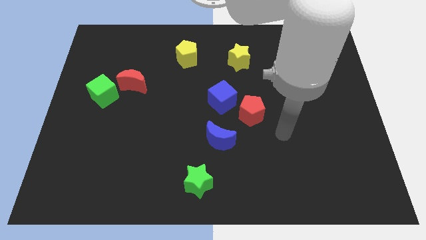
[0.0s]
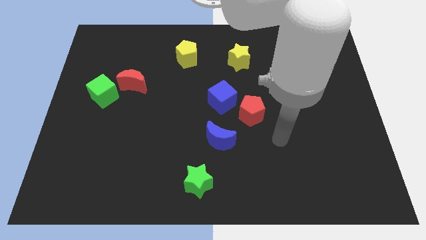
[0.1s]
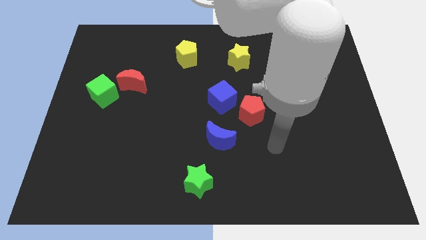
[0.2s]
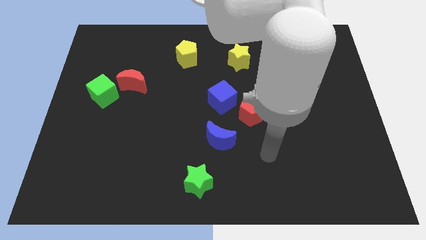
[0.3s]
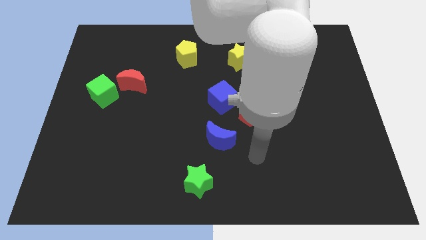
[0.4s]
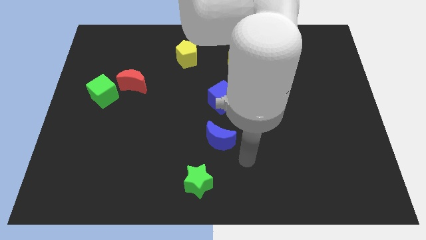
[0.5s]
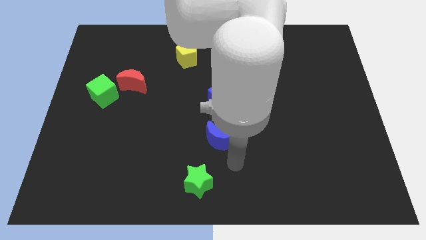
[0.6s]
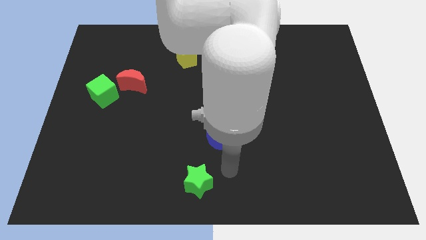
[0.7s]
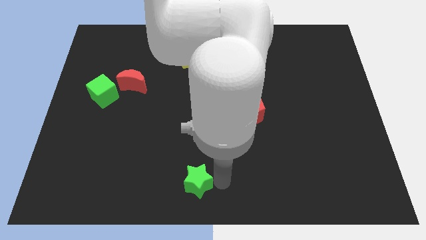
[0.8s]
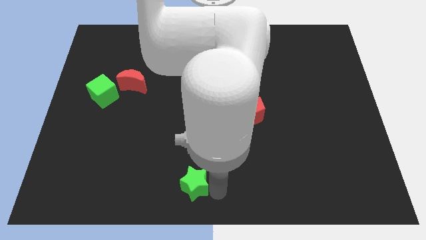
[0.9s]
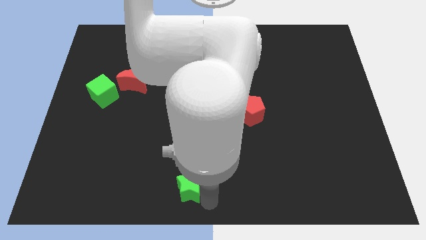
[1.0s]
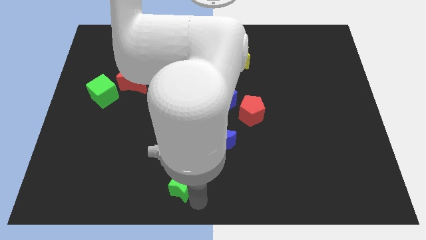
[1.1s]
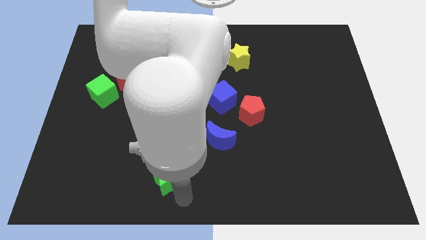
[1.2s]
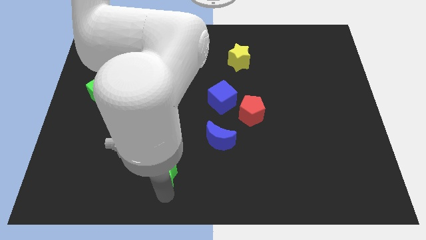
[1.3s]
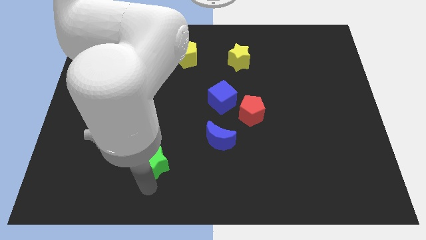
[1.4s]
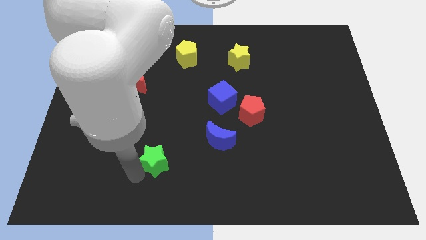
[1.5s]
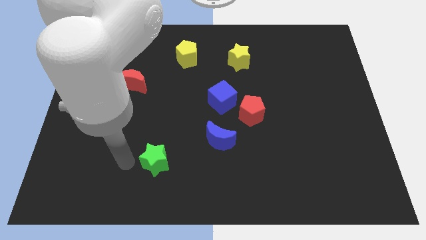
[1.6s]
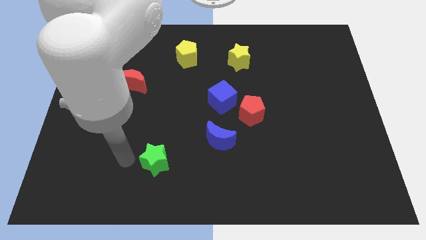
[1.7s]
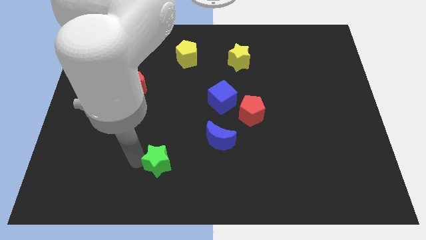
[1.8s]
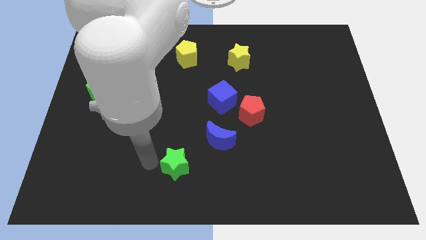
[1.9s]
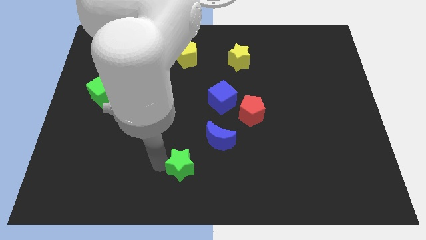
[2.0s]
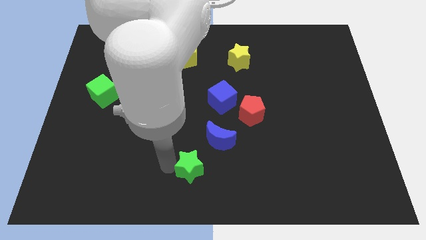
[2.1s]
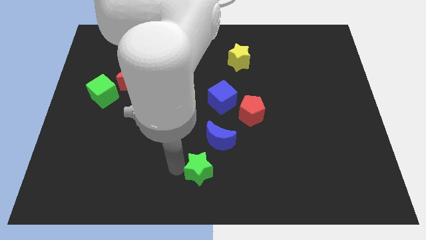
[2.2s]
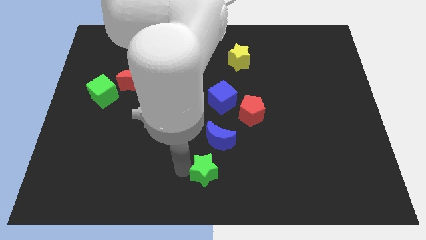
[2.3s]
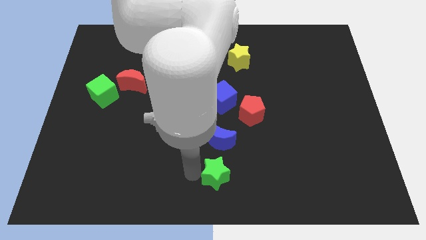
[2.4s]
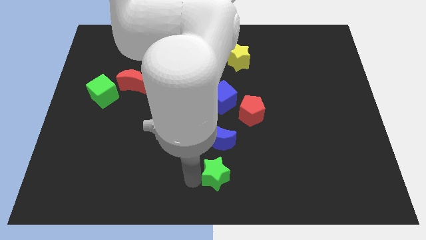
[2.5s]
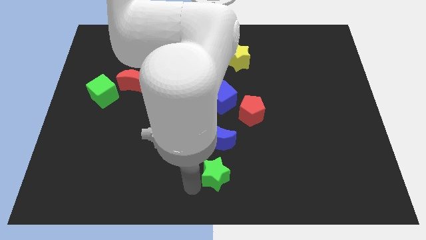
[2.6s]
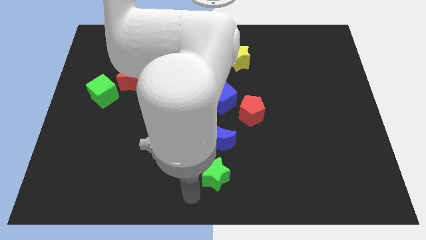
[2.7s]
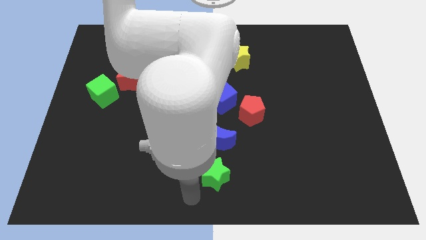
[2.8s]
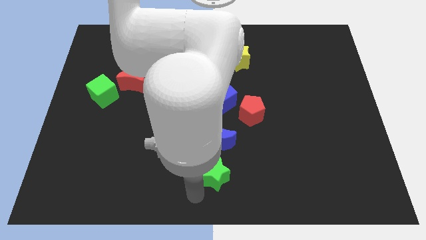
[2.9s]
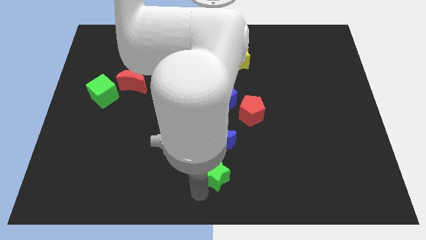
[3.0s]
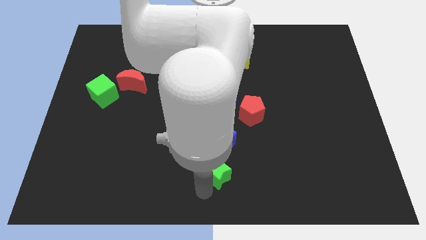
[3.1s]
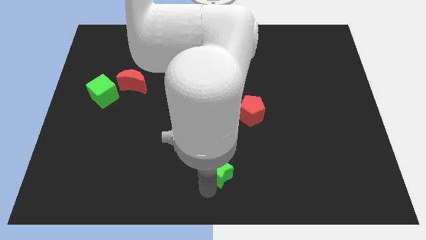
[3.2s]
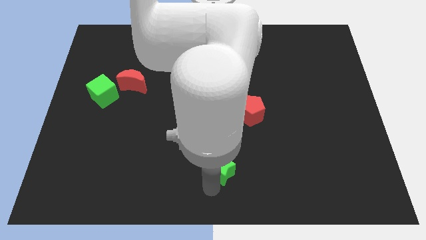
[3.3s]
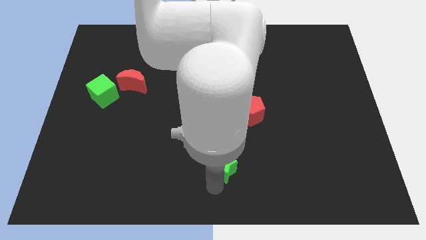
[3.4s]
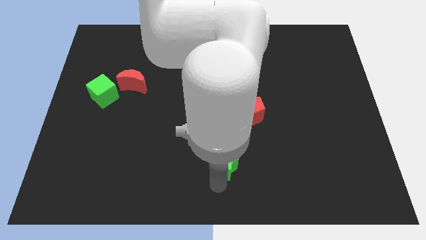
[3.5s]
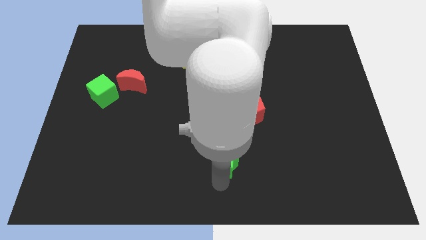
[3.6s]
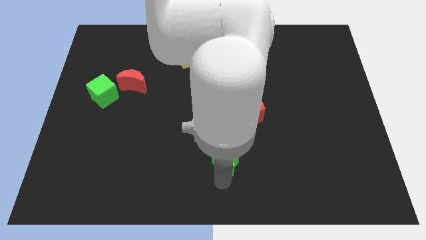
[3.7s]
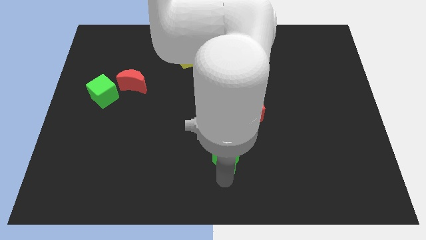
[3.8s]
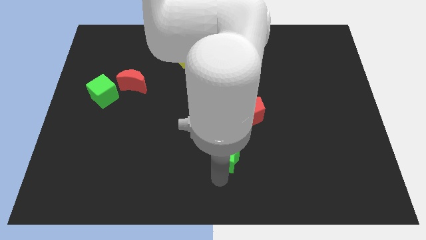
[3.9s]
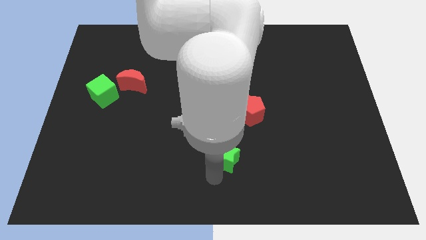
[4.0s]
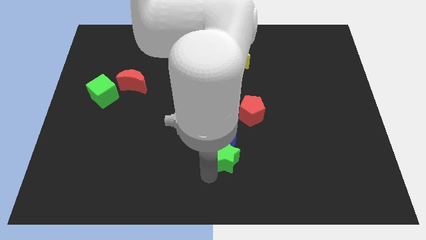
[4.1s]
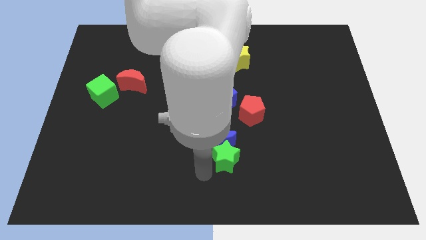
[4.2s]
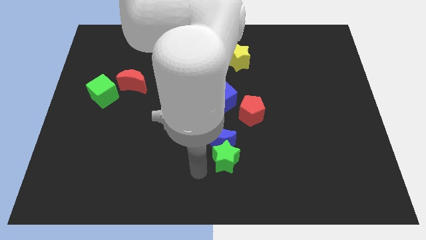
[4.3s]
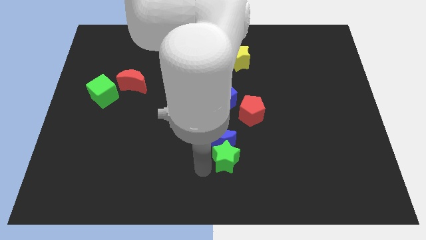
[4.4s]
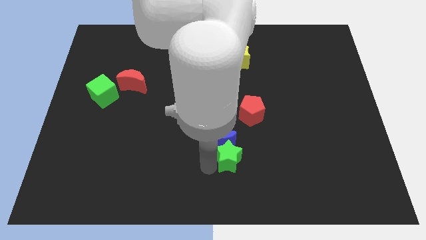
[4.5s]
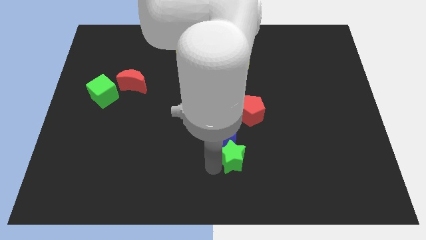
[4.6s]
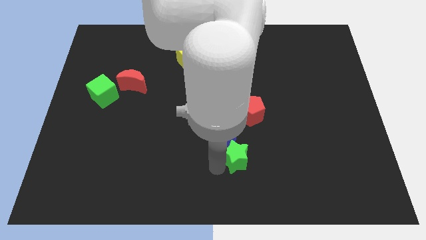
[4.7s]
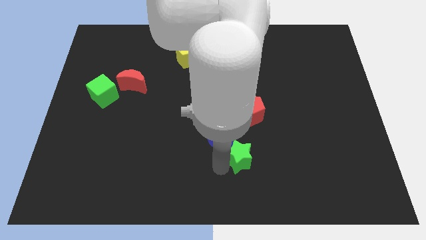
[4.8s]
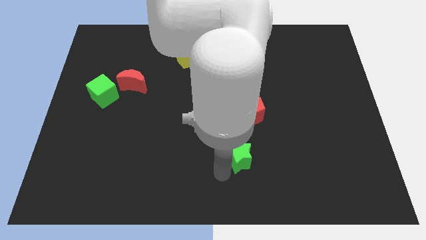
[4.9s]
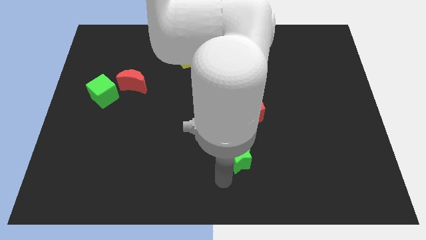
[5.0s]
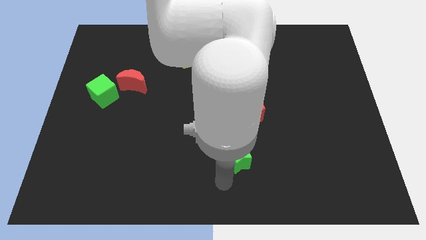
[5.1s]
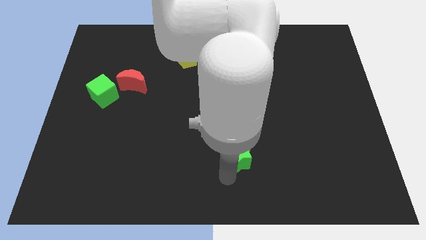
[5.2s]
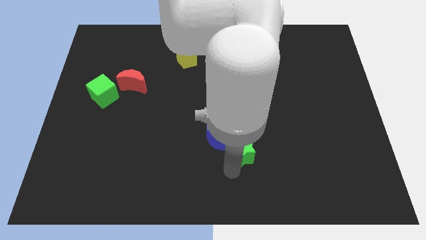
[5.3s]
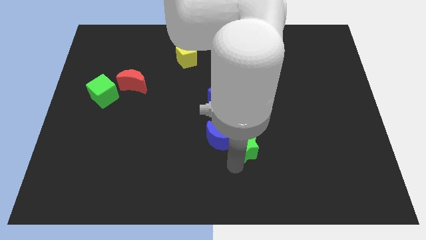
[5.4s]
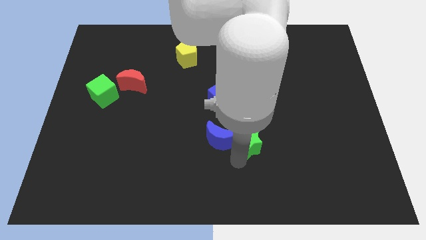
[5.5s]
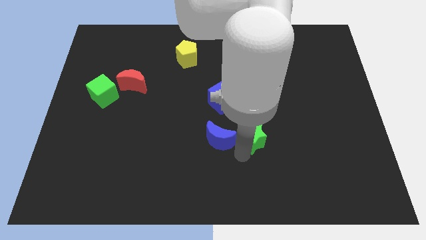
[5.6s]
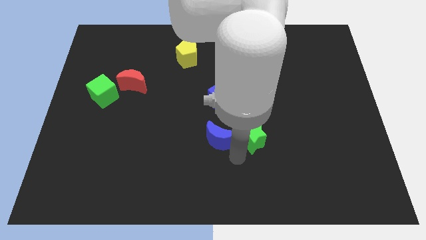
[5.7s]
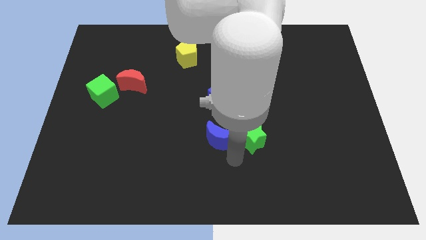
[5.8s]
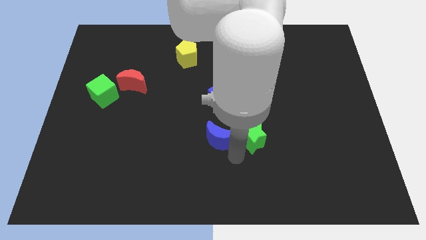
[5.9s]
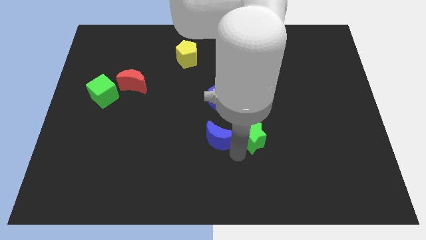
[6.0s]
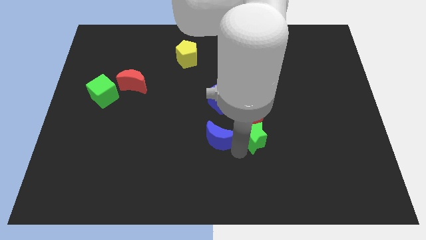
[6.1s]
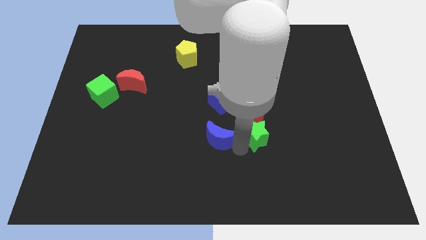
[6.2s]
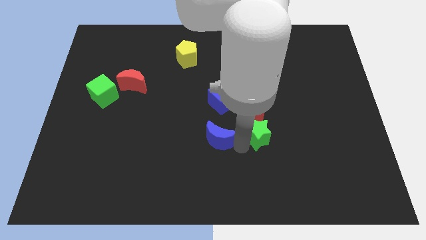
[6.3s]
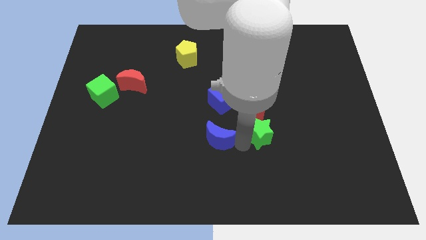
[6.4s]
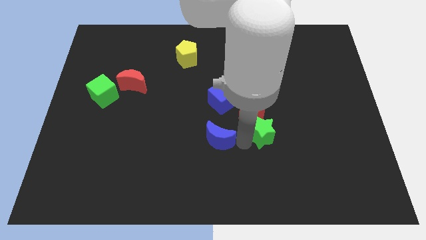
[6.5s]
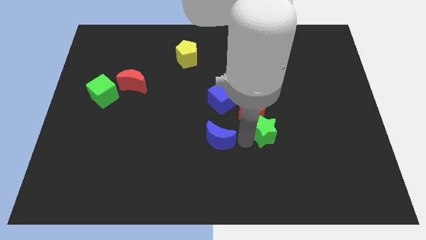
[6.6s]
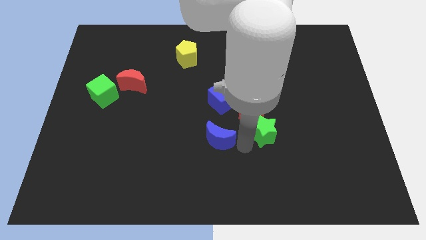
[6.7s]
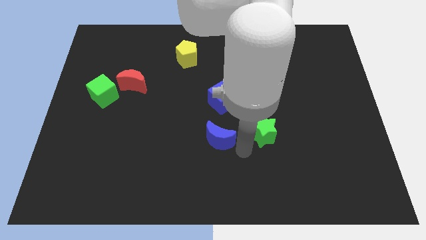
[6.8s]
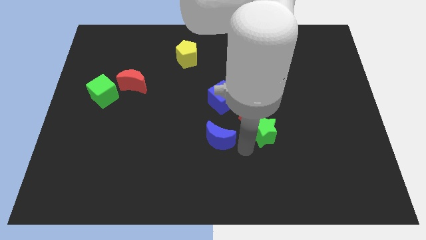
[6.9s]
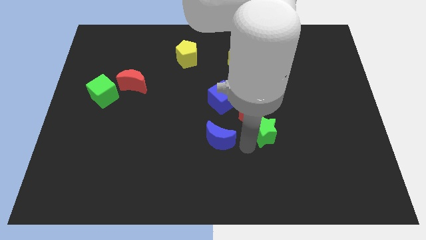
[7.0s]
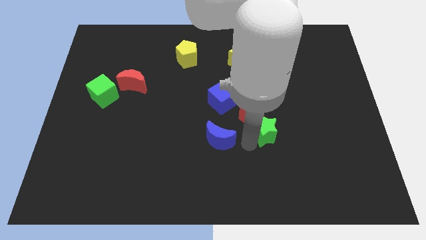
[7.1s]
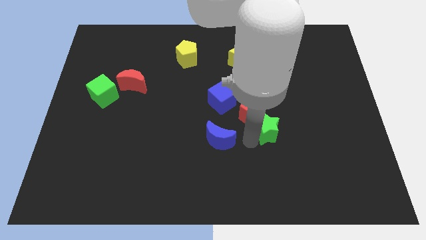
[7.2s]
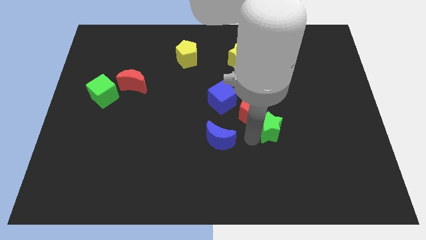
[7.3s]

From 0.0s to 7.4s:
move the green star up and to the right diagonally

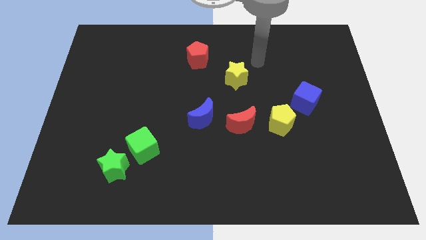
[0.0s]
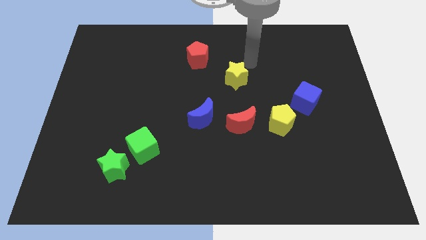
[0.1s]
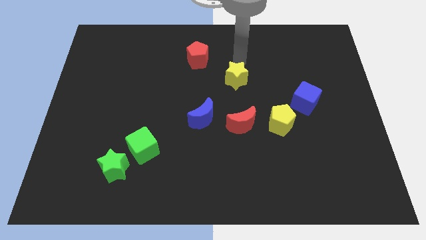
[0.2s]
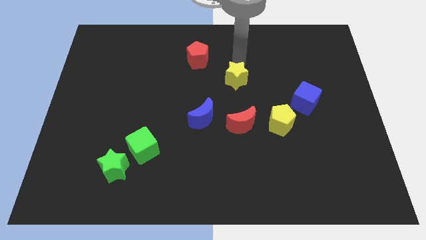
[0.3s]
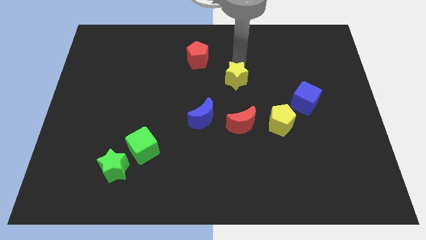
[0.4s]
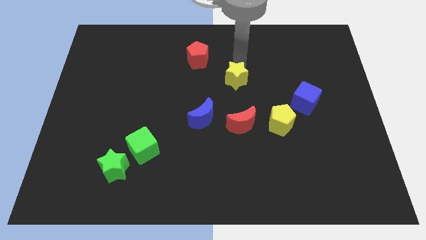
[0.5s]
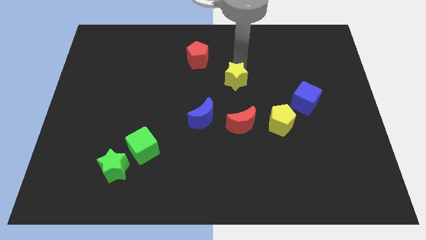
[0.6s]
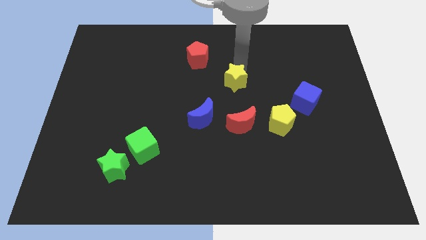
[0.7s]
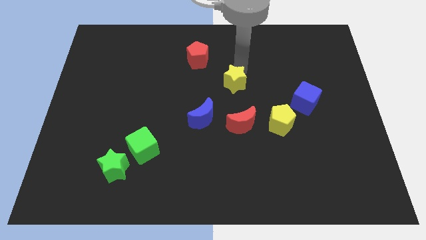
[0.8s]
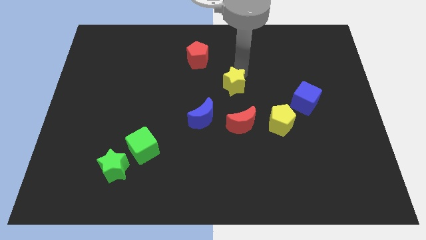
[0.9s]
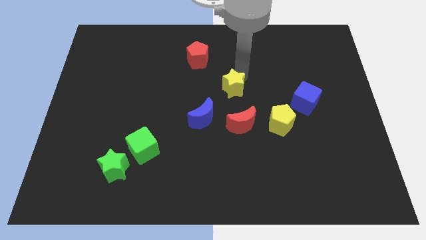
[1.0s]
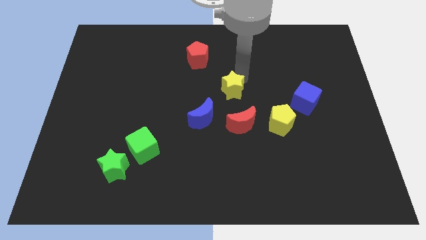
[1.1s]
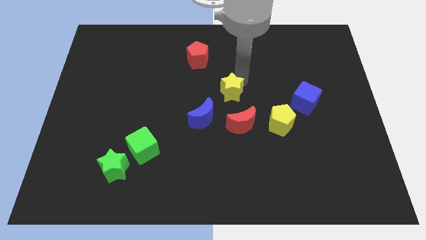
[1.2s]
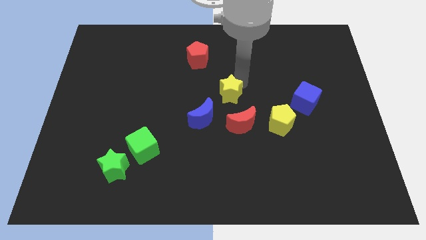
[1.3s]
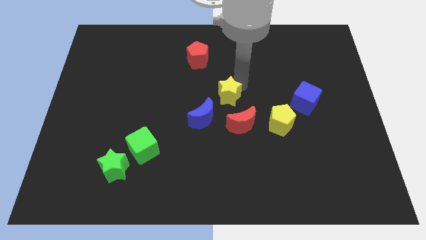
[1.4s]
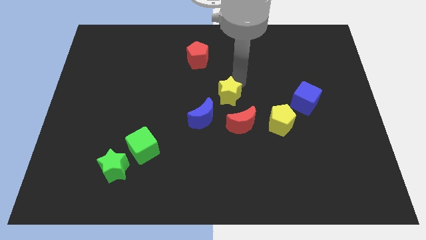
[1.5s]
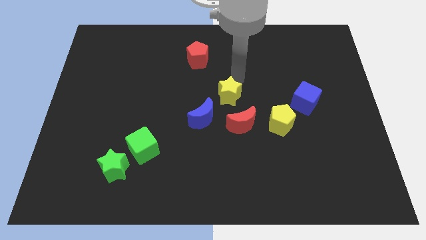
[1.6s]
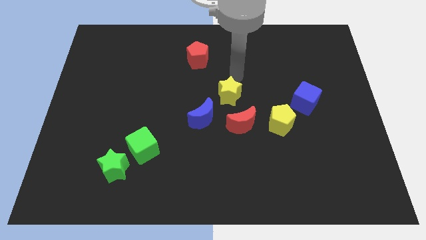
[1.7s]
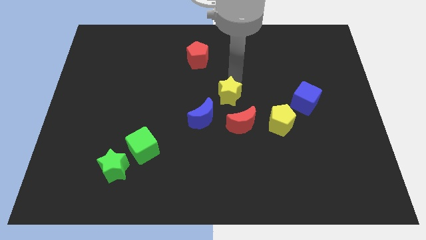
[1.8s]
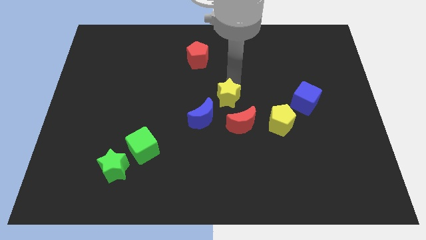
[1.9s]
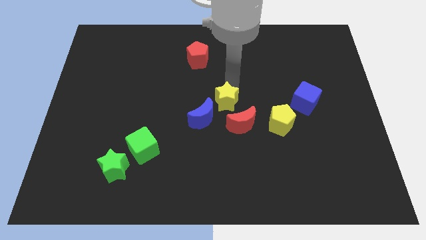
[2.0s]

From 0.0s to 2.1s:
move the yellow star a bit downwards
